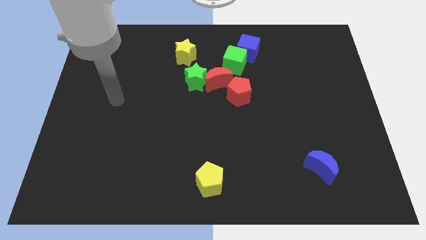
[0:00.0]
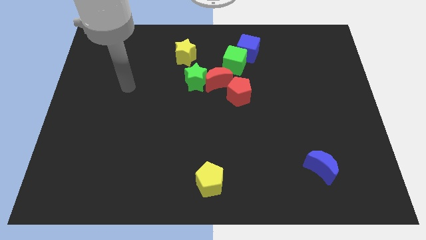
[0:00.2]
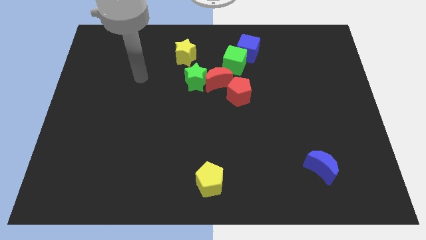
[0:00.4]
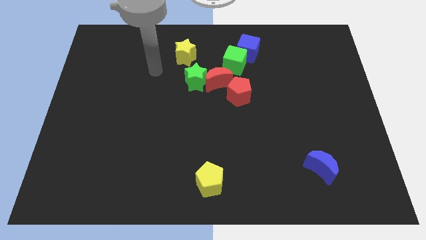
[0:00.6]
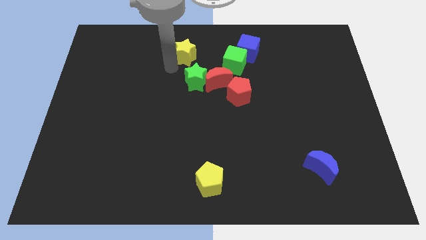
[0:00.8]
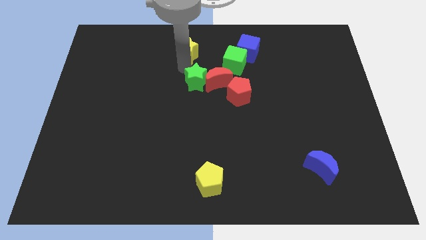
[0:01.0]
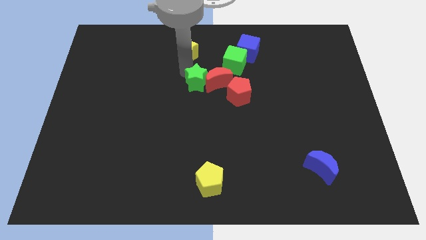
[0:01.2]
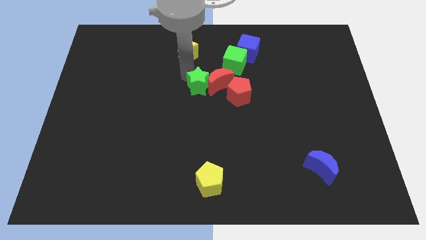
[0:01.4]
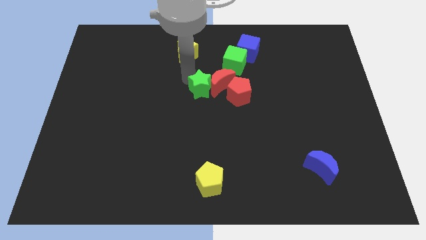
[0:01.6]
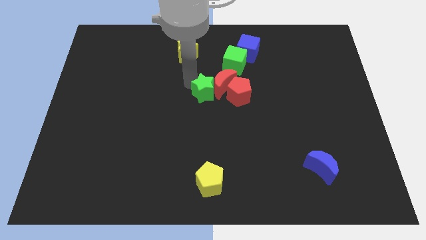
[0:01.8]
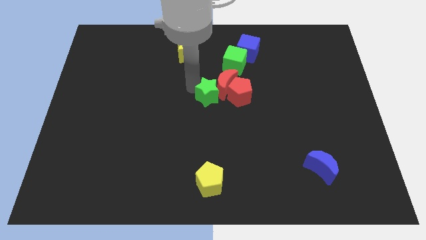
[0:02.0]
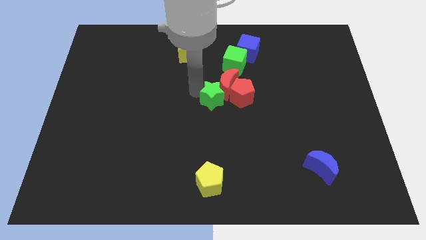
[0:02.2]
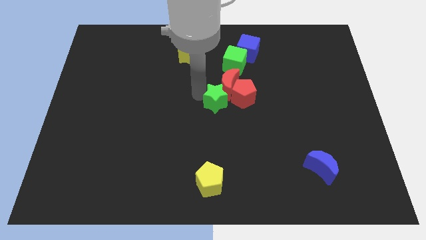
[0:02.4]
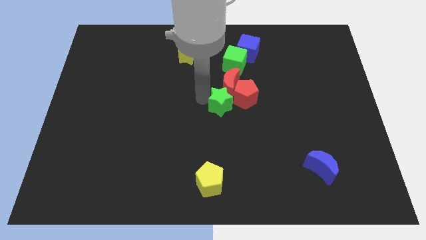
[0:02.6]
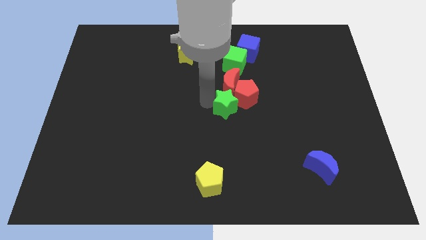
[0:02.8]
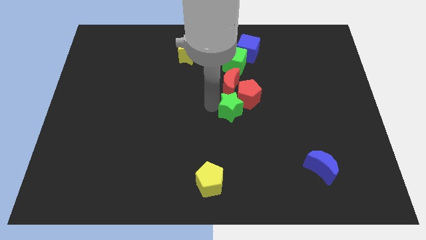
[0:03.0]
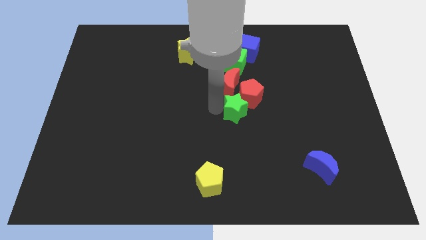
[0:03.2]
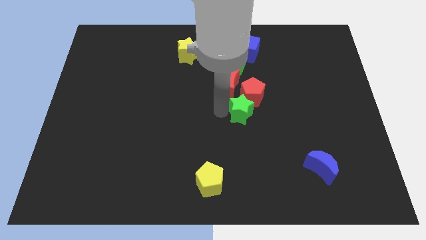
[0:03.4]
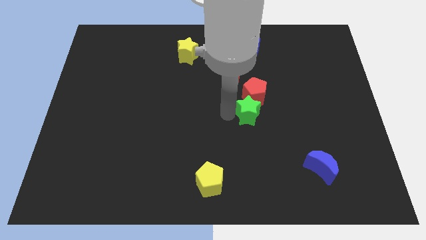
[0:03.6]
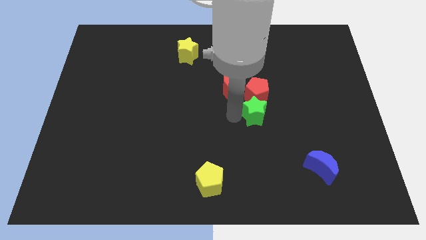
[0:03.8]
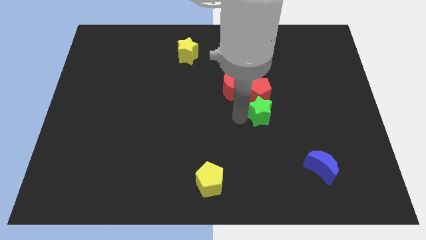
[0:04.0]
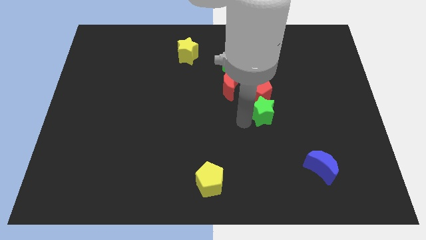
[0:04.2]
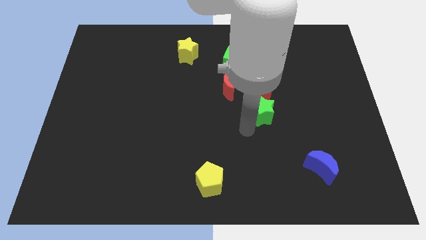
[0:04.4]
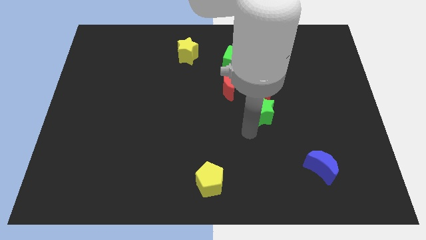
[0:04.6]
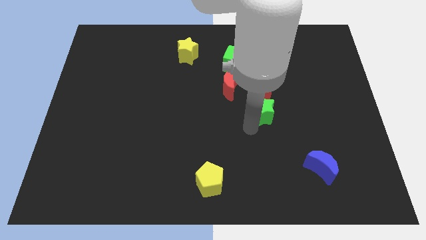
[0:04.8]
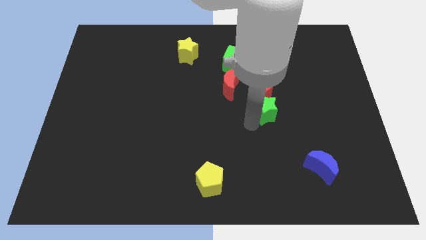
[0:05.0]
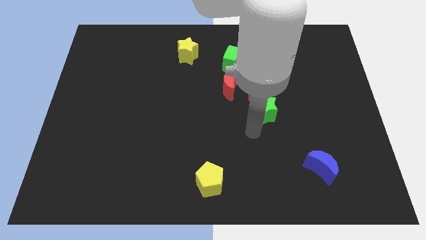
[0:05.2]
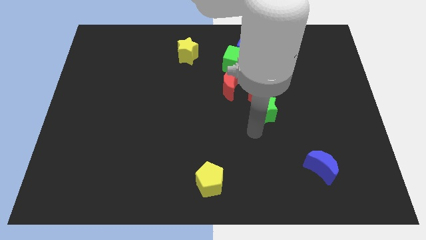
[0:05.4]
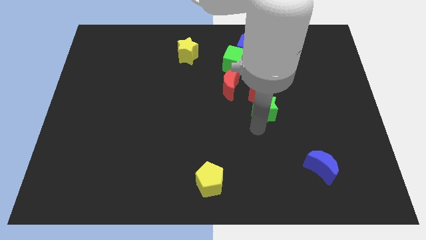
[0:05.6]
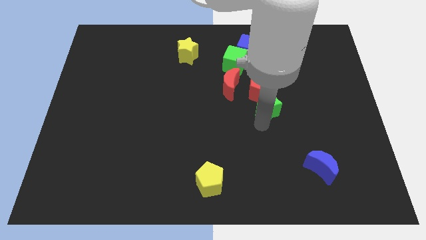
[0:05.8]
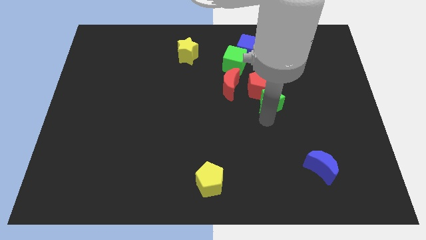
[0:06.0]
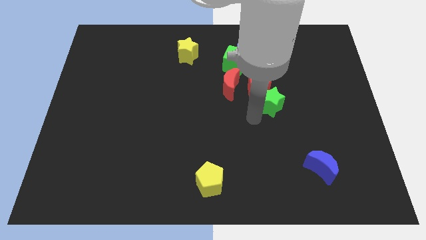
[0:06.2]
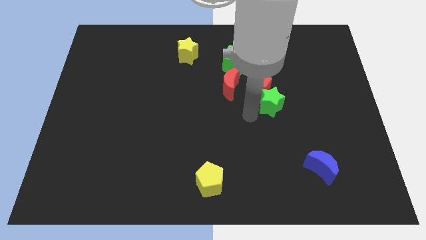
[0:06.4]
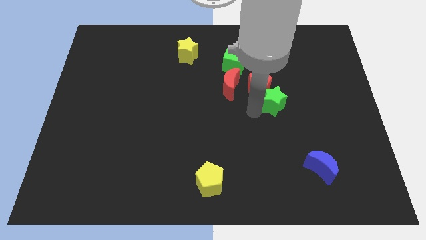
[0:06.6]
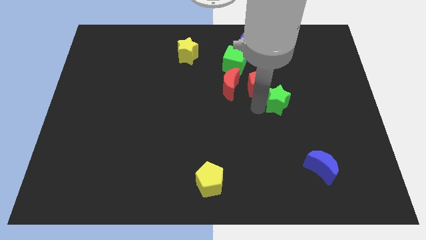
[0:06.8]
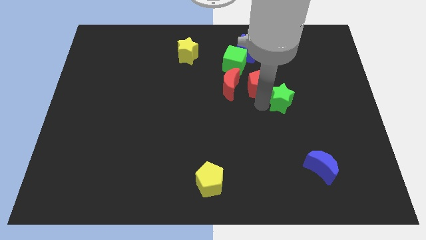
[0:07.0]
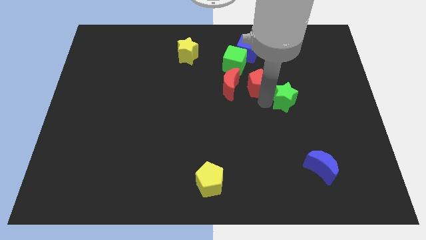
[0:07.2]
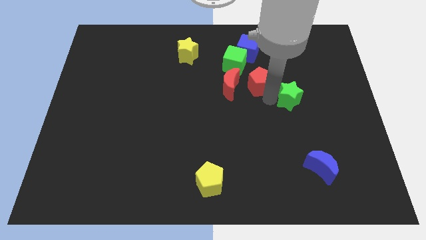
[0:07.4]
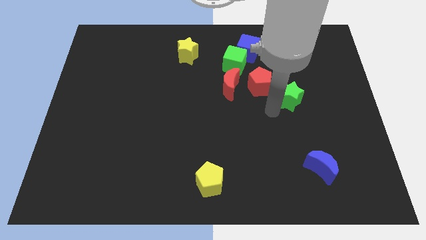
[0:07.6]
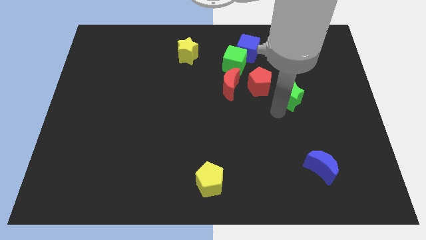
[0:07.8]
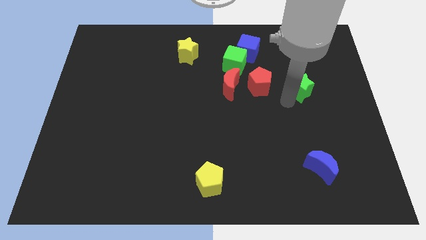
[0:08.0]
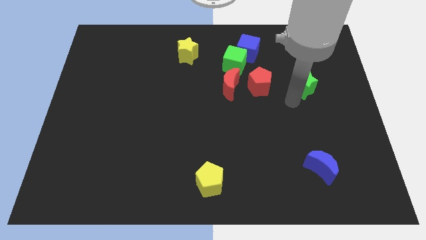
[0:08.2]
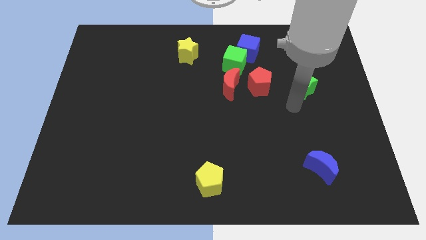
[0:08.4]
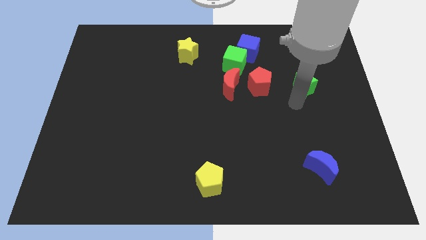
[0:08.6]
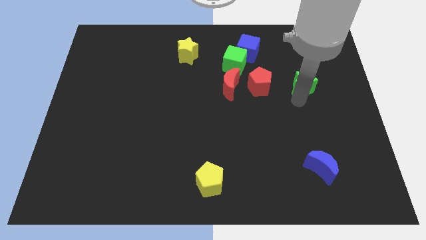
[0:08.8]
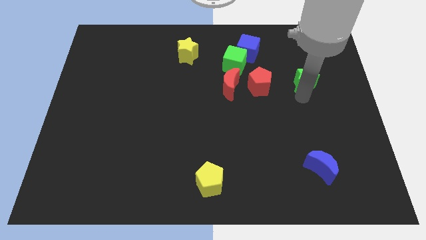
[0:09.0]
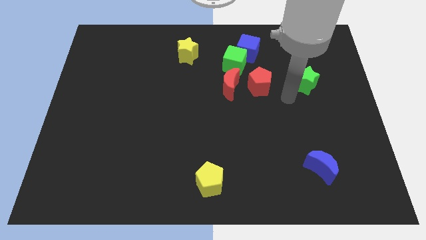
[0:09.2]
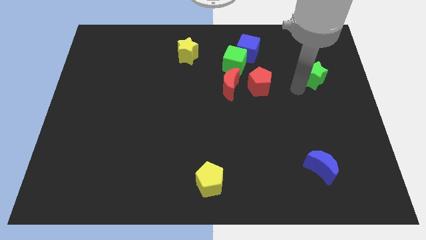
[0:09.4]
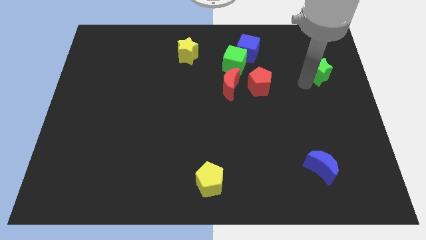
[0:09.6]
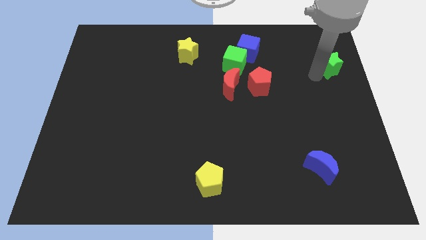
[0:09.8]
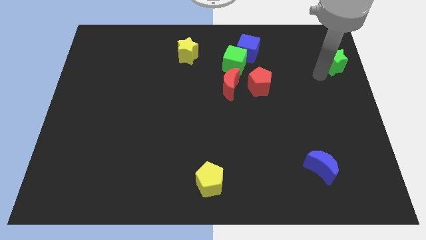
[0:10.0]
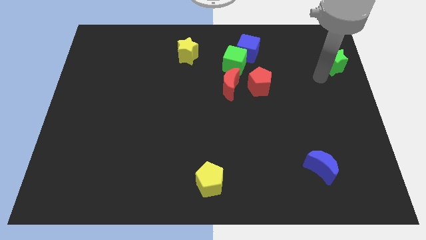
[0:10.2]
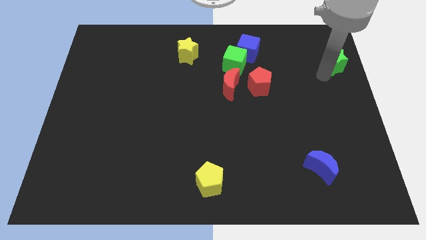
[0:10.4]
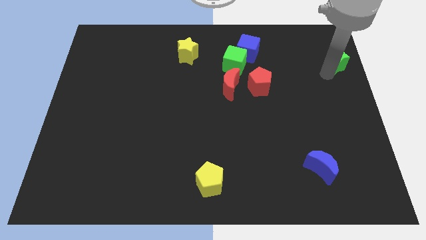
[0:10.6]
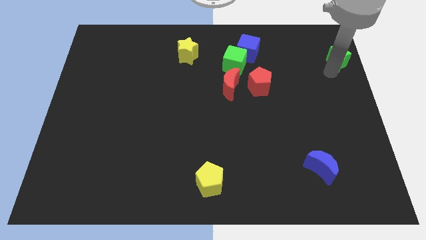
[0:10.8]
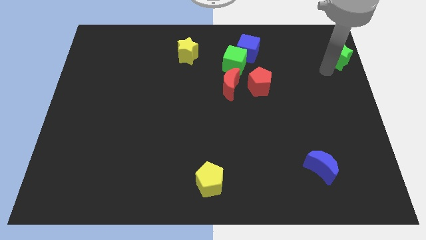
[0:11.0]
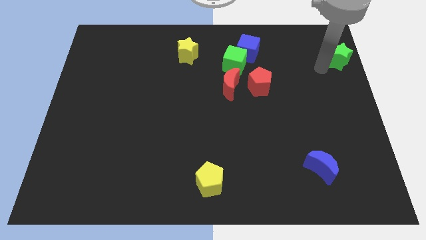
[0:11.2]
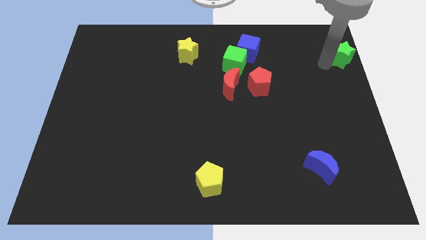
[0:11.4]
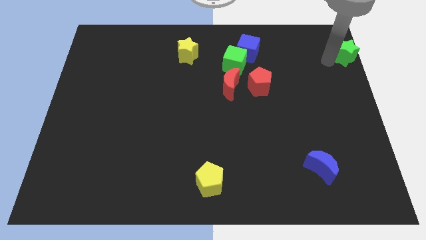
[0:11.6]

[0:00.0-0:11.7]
push the green star to the top right corner
